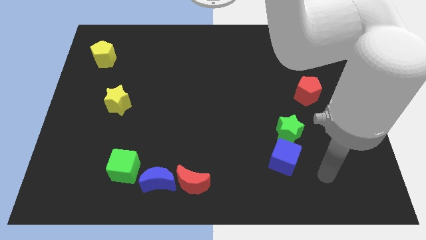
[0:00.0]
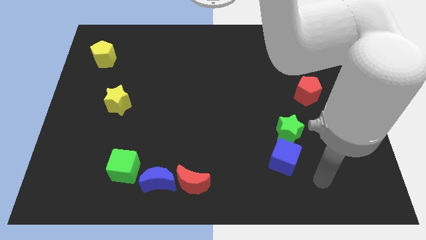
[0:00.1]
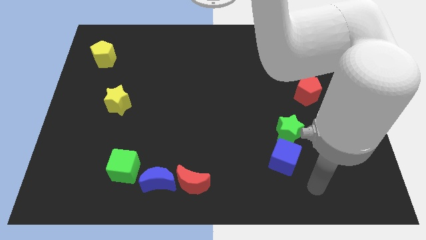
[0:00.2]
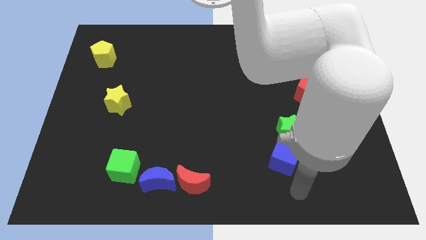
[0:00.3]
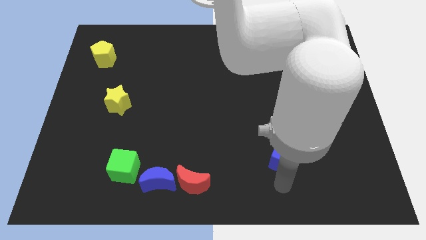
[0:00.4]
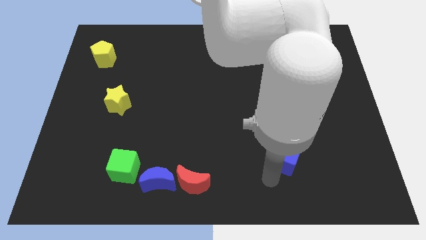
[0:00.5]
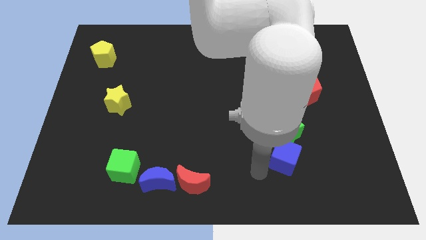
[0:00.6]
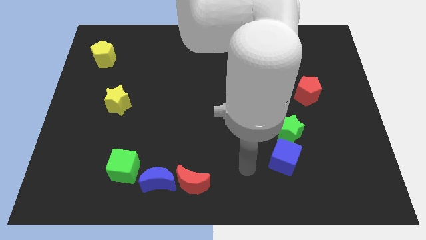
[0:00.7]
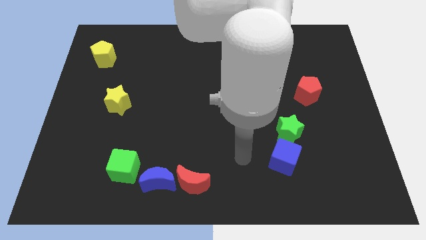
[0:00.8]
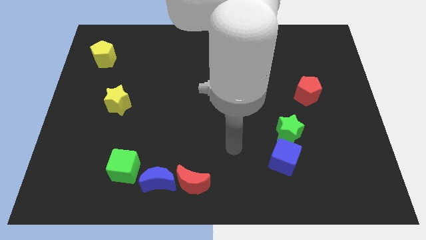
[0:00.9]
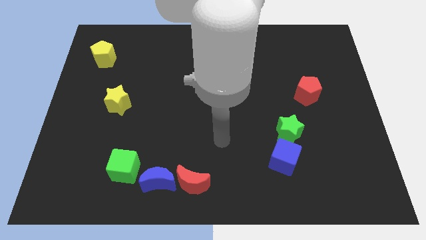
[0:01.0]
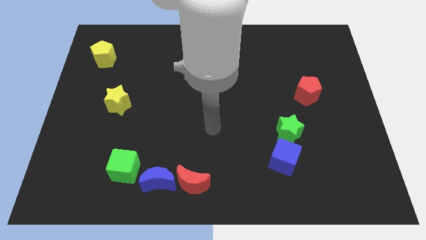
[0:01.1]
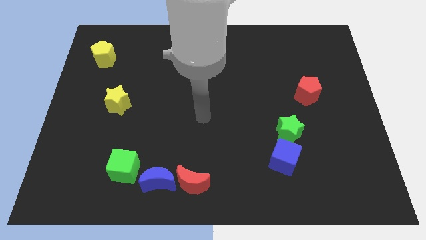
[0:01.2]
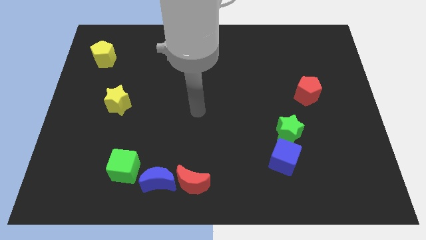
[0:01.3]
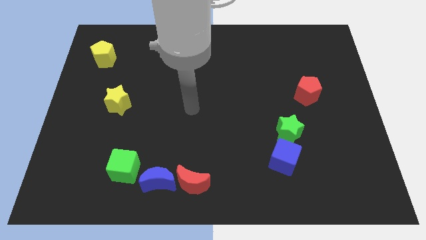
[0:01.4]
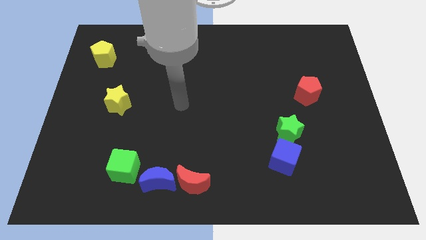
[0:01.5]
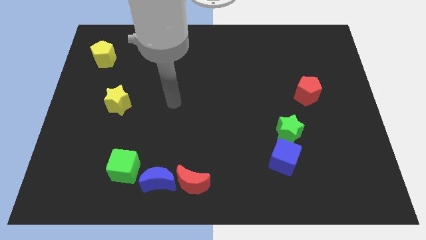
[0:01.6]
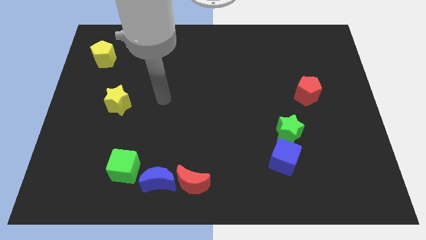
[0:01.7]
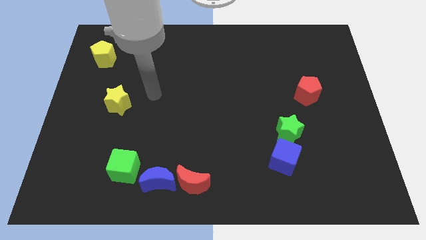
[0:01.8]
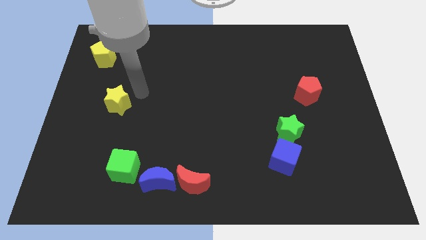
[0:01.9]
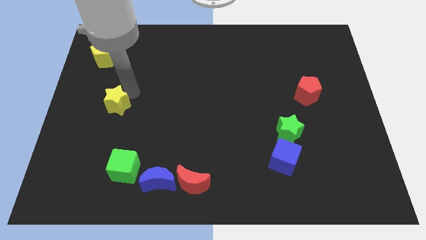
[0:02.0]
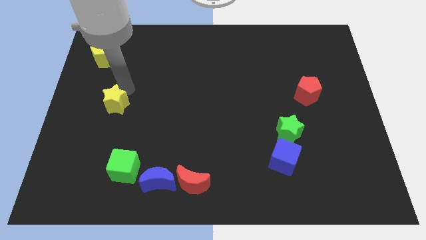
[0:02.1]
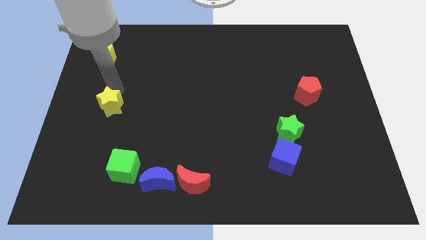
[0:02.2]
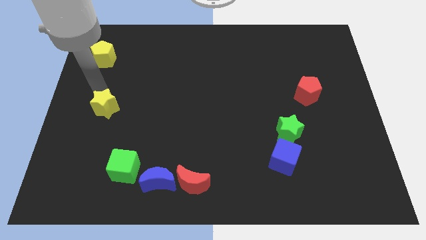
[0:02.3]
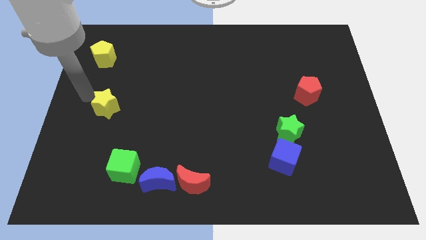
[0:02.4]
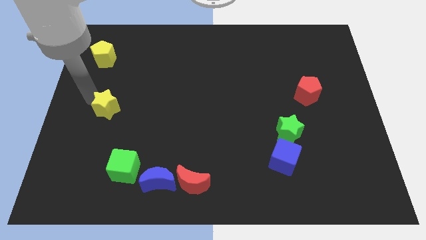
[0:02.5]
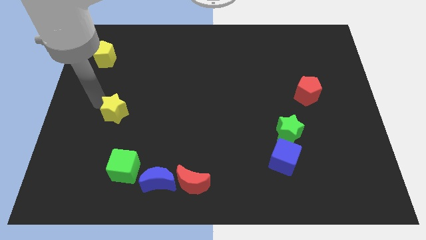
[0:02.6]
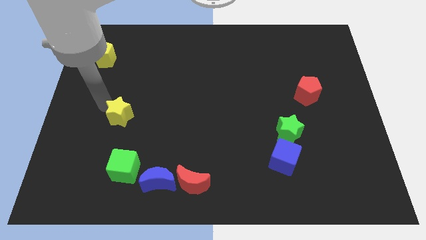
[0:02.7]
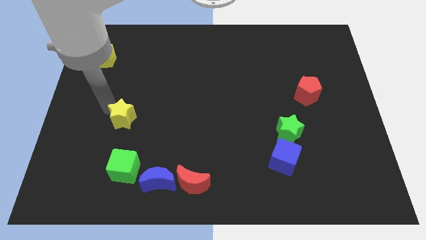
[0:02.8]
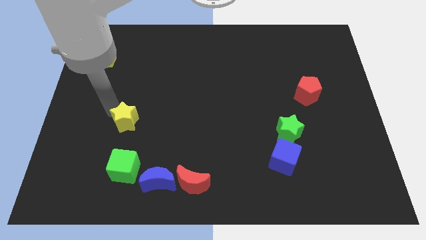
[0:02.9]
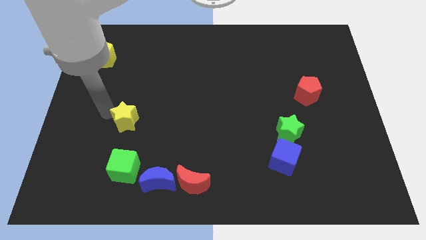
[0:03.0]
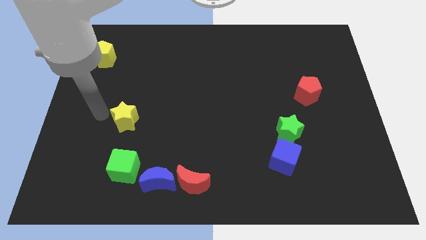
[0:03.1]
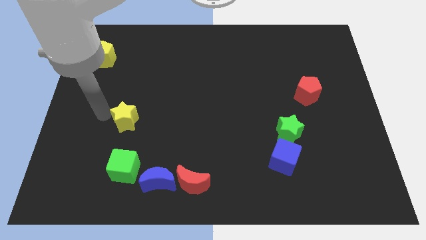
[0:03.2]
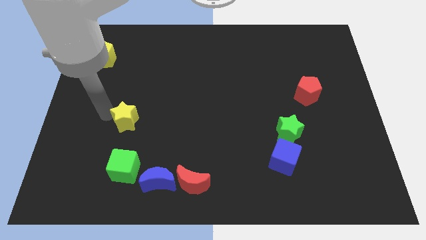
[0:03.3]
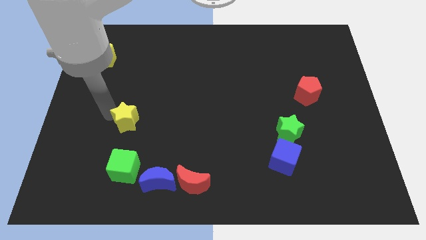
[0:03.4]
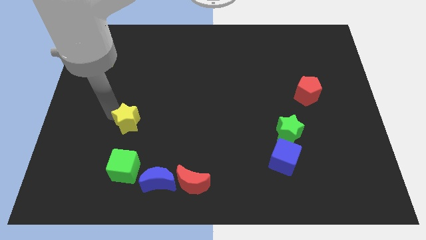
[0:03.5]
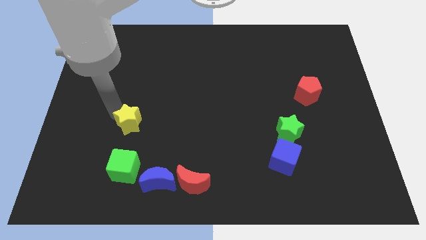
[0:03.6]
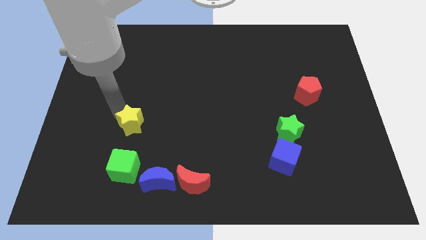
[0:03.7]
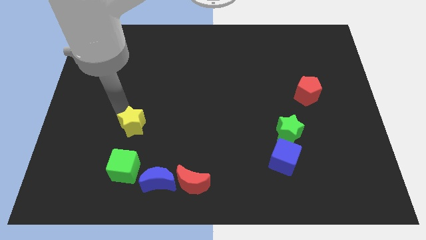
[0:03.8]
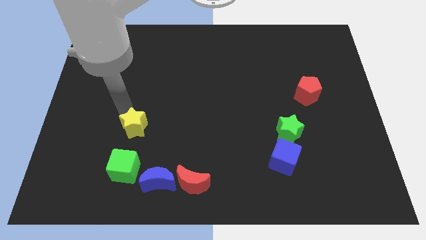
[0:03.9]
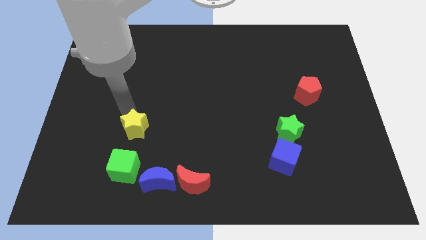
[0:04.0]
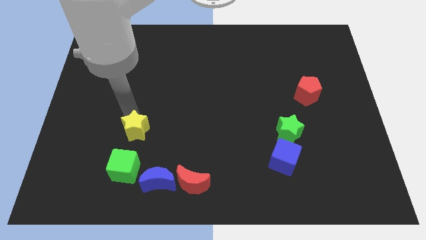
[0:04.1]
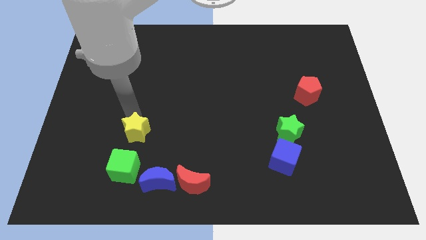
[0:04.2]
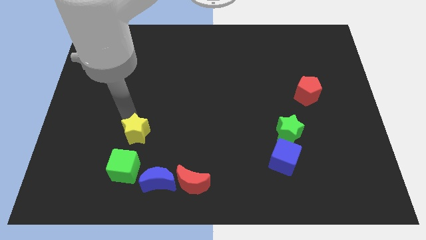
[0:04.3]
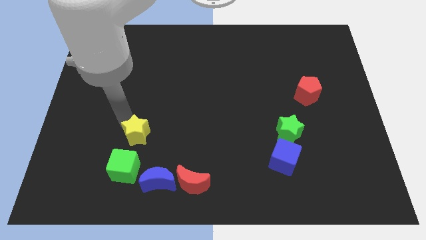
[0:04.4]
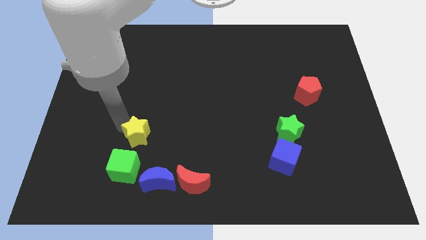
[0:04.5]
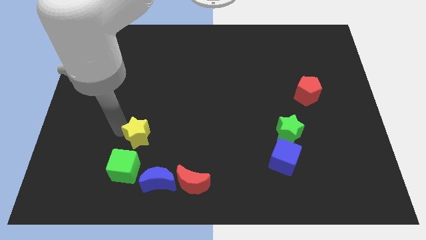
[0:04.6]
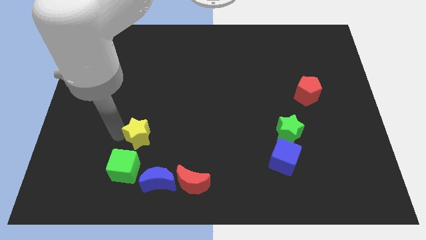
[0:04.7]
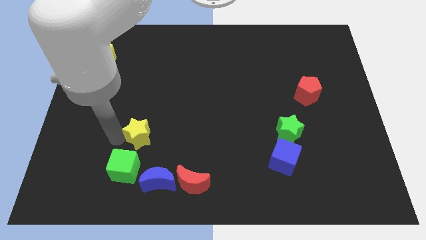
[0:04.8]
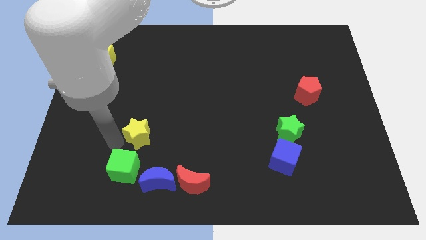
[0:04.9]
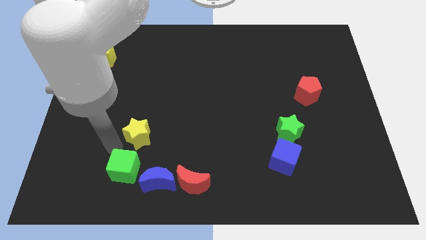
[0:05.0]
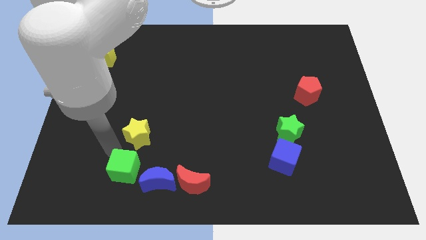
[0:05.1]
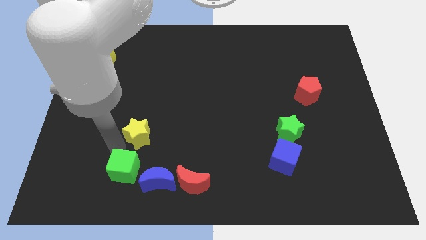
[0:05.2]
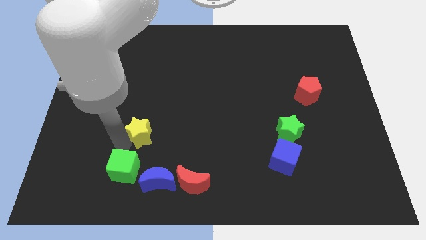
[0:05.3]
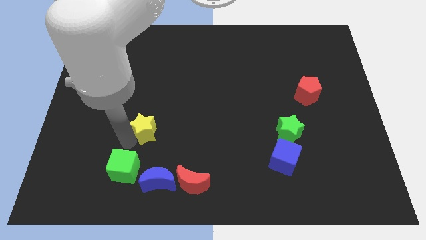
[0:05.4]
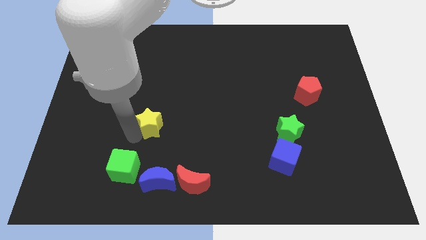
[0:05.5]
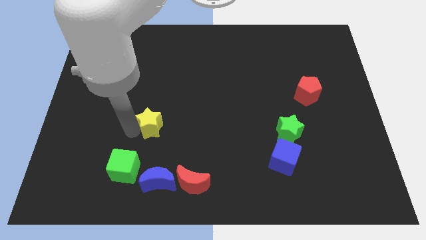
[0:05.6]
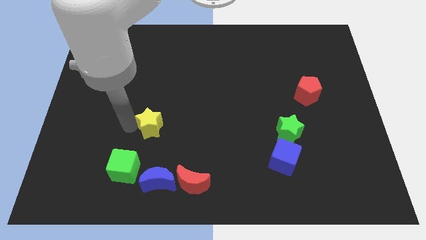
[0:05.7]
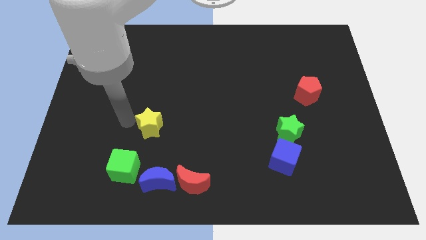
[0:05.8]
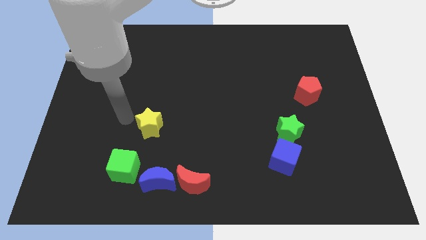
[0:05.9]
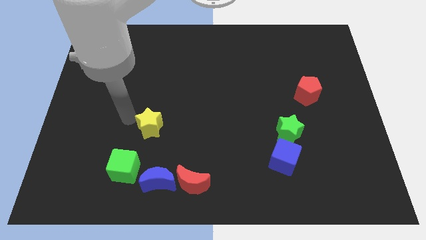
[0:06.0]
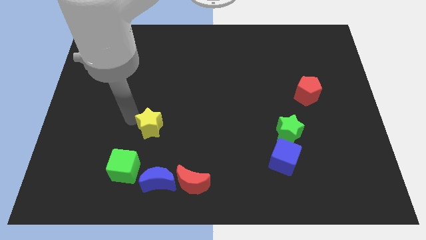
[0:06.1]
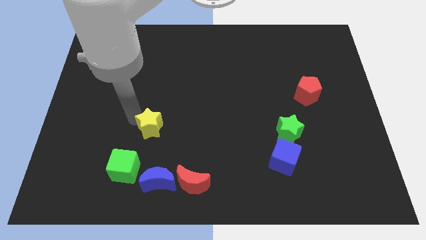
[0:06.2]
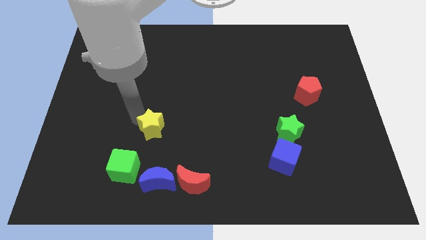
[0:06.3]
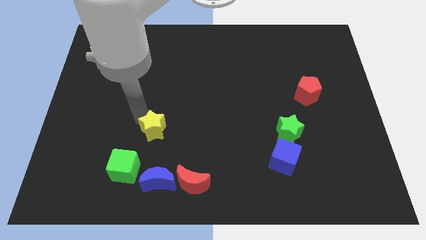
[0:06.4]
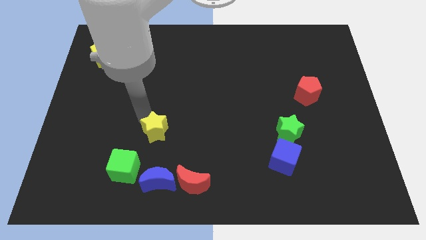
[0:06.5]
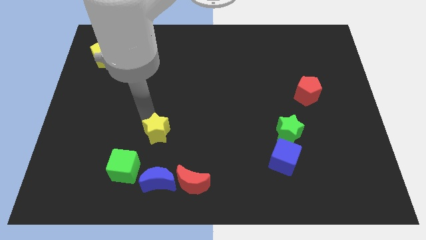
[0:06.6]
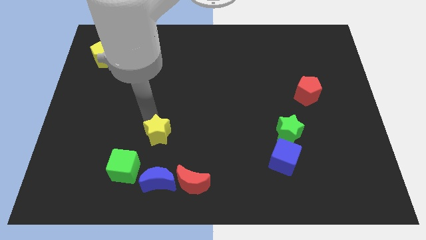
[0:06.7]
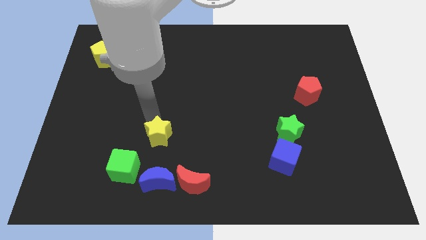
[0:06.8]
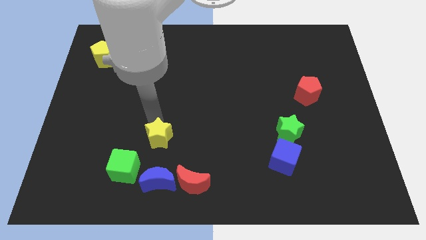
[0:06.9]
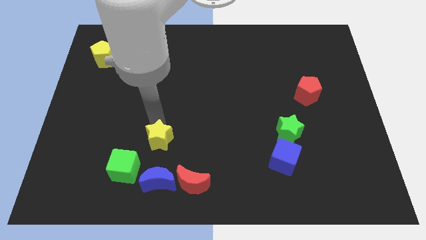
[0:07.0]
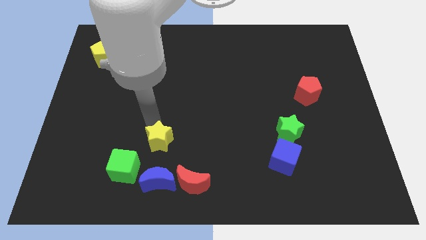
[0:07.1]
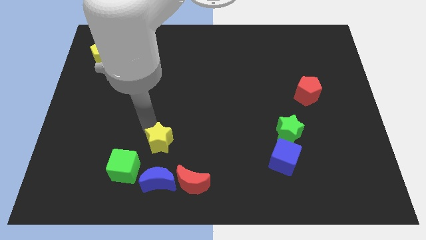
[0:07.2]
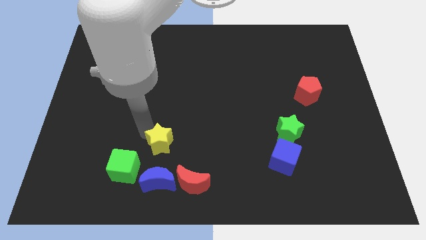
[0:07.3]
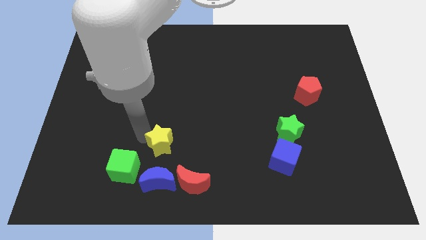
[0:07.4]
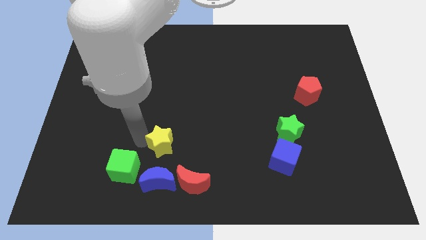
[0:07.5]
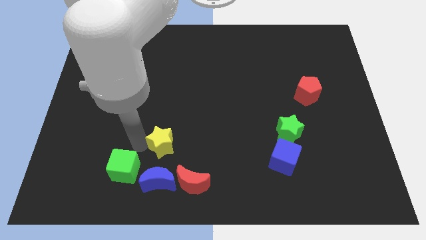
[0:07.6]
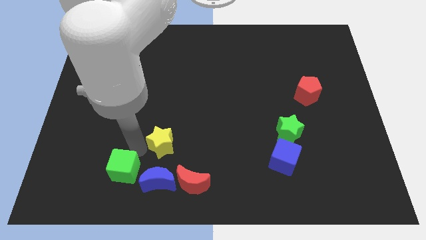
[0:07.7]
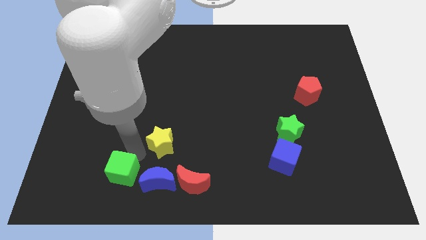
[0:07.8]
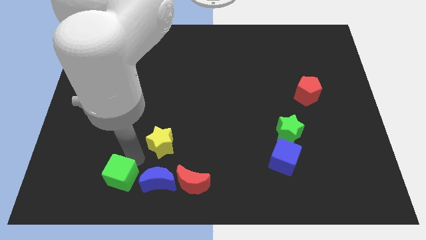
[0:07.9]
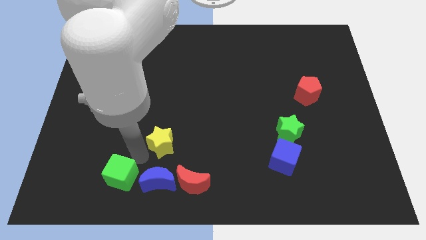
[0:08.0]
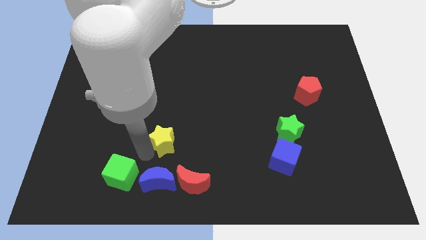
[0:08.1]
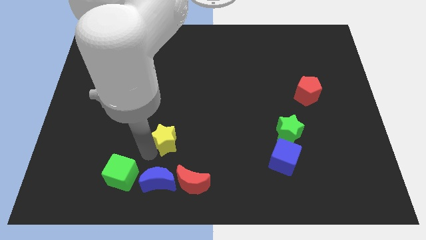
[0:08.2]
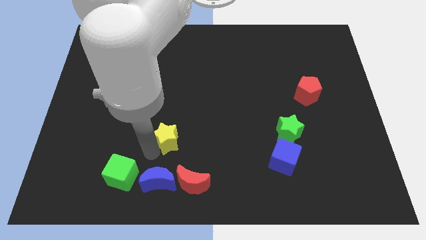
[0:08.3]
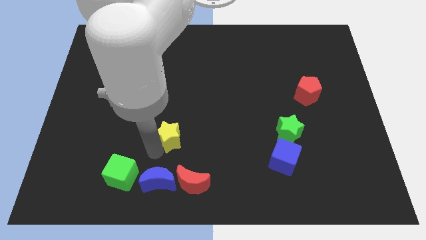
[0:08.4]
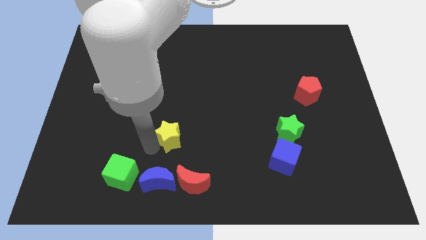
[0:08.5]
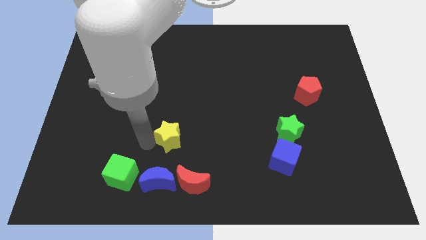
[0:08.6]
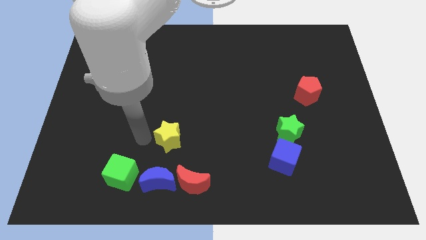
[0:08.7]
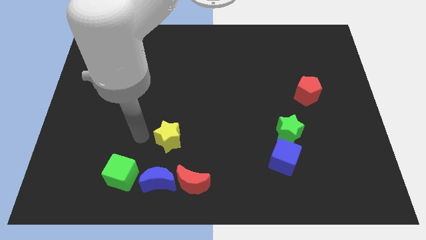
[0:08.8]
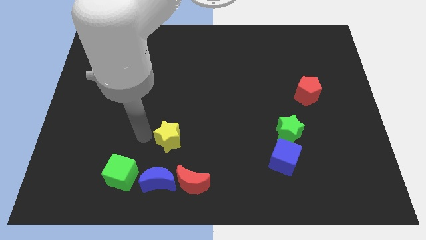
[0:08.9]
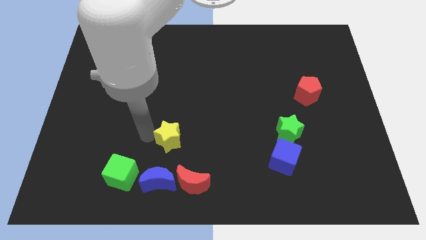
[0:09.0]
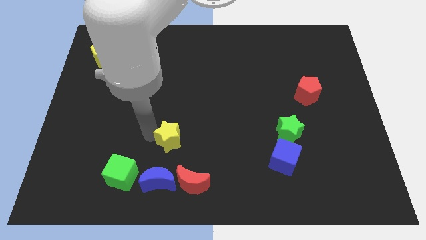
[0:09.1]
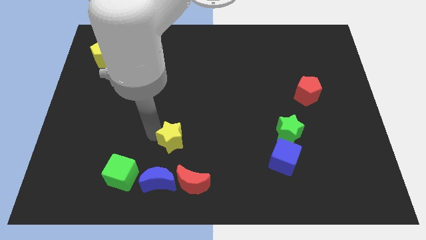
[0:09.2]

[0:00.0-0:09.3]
move the yellow star to the top side of the red moon
